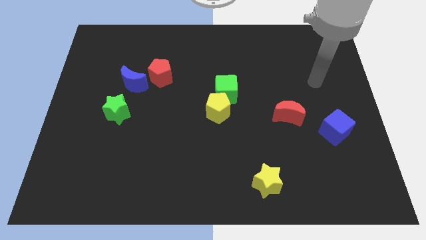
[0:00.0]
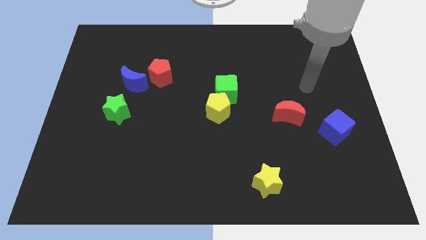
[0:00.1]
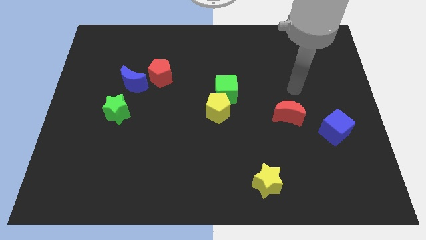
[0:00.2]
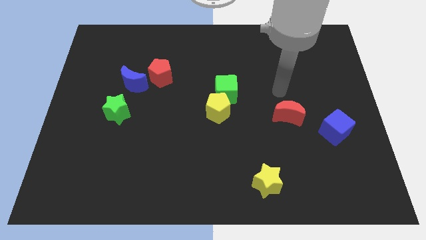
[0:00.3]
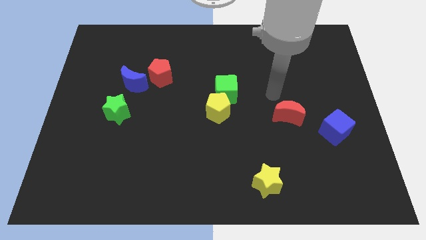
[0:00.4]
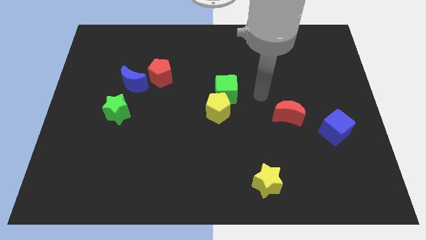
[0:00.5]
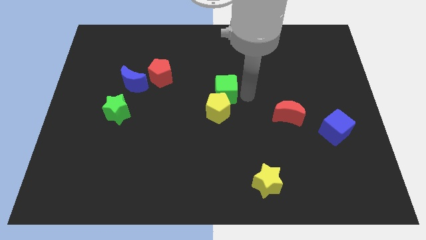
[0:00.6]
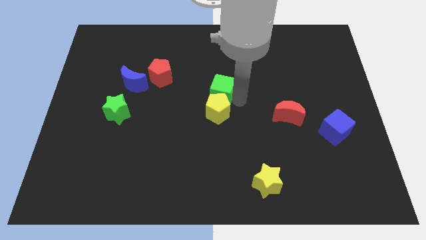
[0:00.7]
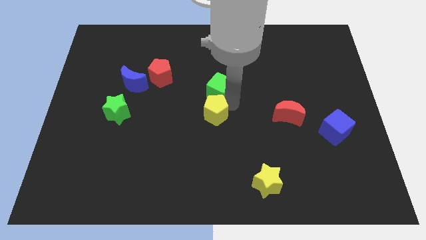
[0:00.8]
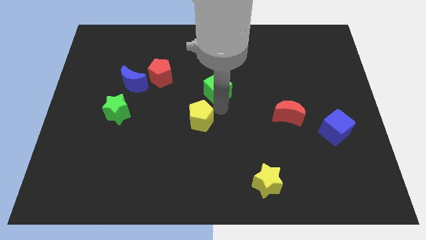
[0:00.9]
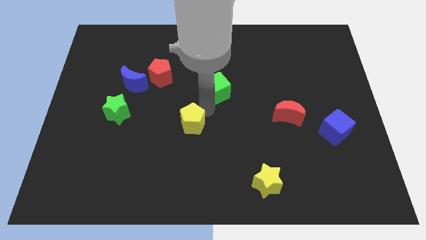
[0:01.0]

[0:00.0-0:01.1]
separate the green cube from the yellow pentagon

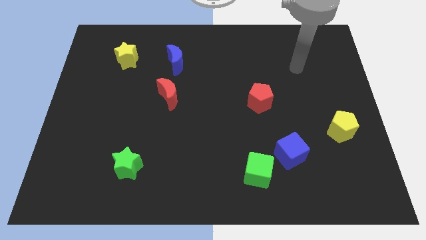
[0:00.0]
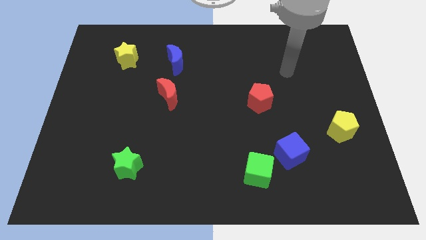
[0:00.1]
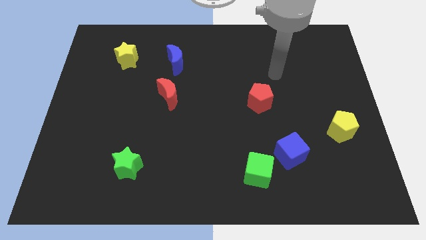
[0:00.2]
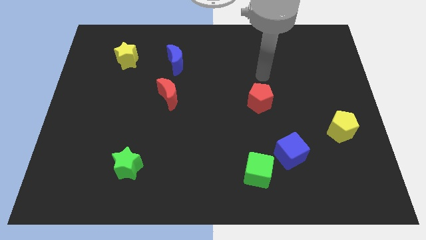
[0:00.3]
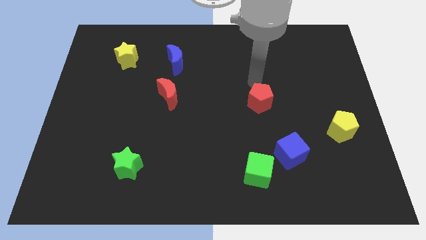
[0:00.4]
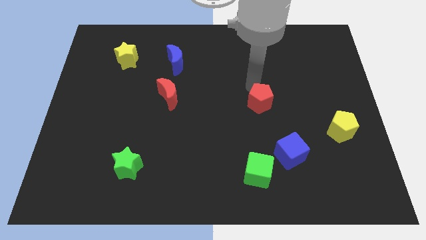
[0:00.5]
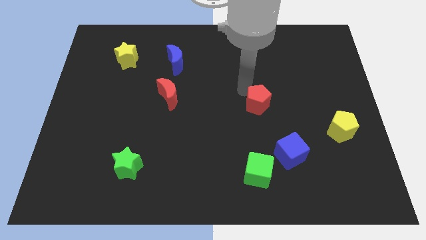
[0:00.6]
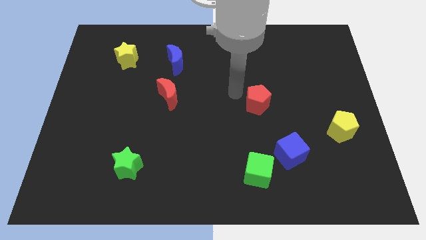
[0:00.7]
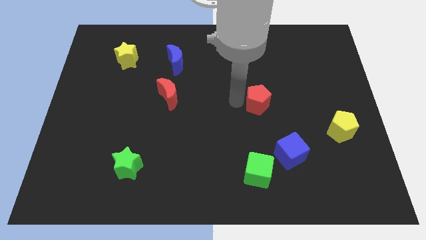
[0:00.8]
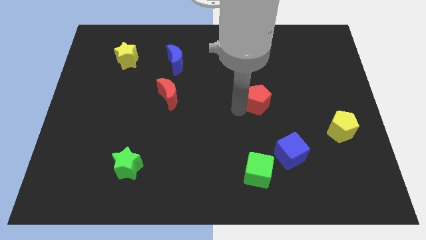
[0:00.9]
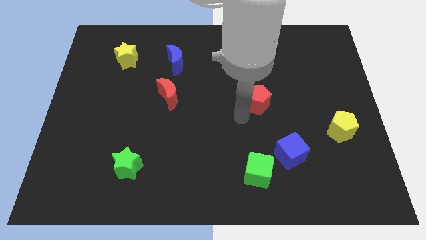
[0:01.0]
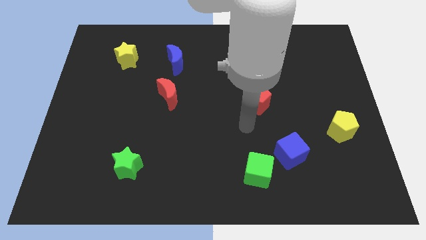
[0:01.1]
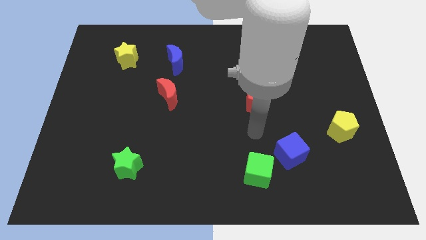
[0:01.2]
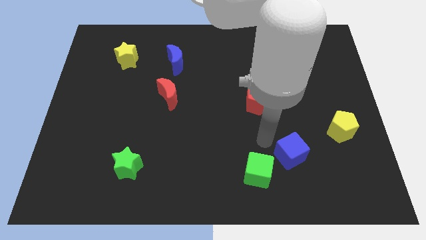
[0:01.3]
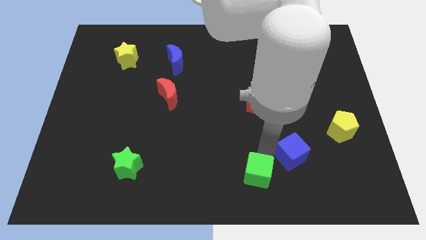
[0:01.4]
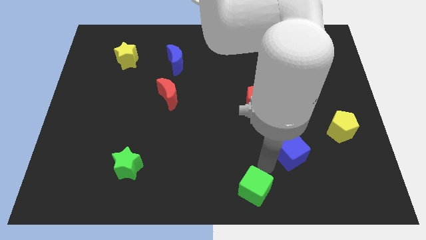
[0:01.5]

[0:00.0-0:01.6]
move the blue cube away from the green cube

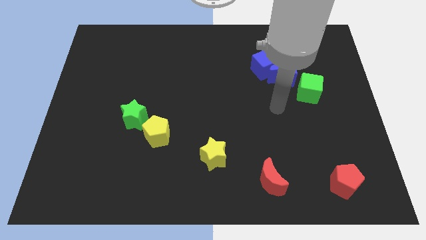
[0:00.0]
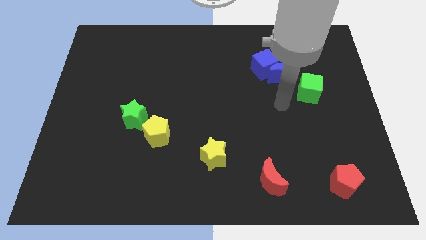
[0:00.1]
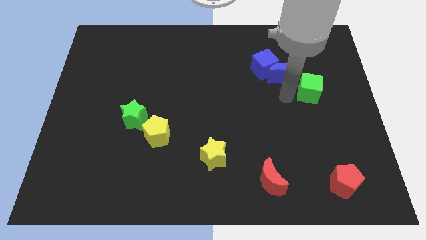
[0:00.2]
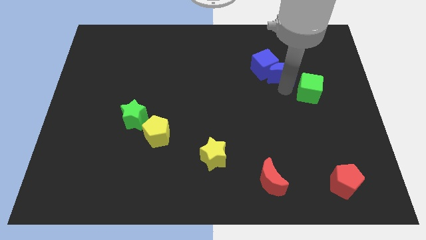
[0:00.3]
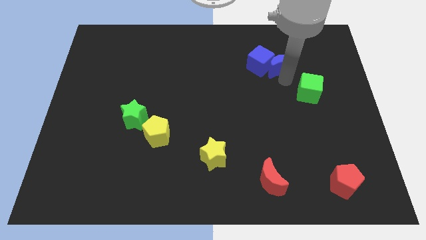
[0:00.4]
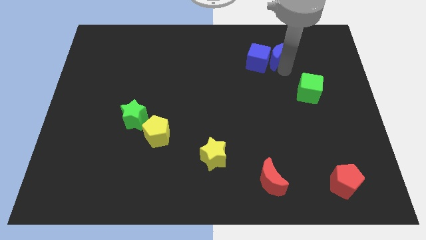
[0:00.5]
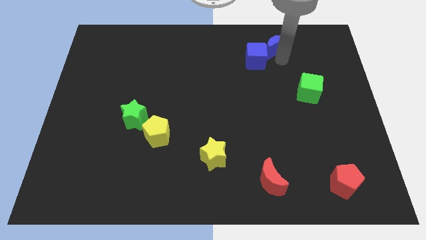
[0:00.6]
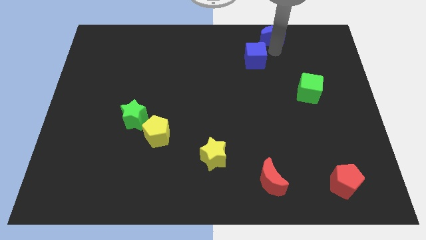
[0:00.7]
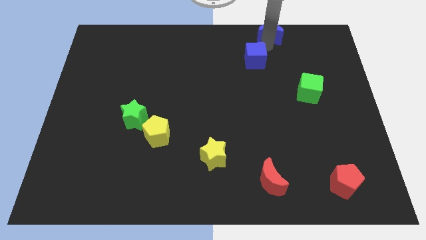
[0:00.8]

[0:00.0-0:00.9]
separate the blue cube from the blue moon

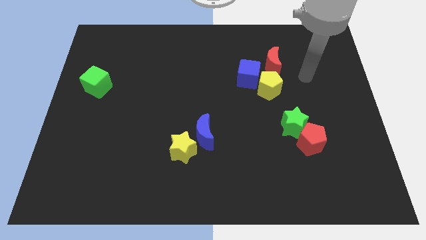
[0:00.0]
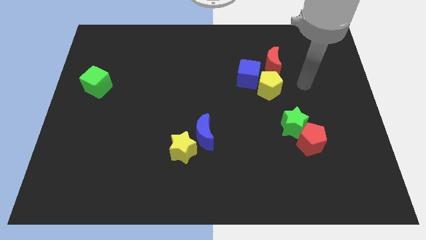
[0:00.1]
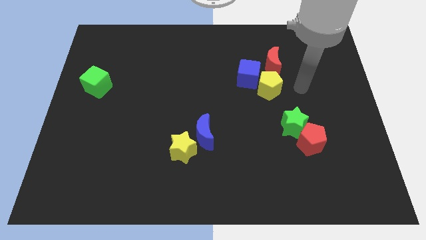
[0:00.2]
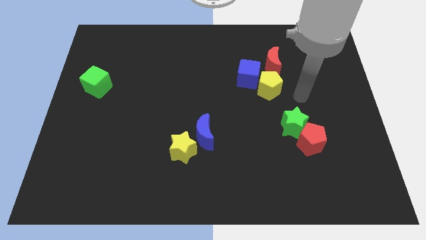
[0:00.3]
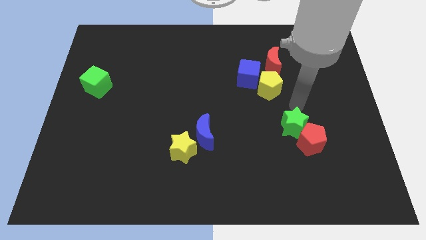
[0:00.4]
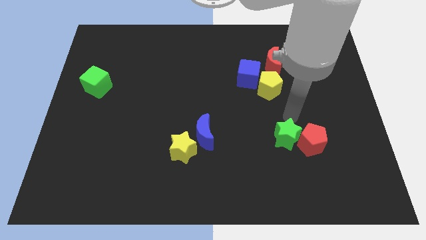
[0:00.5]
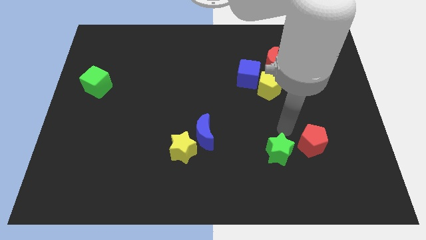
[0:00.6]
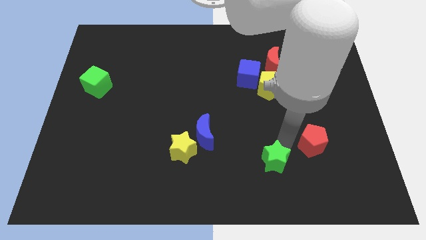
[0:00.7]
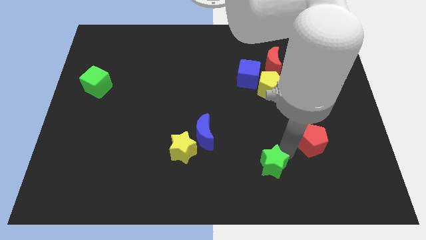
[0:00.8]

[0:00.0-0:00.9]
separate the red pentagon from the green star

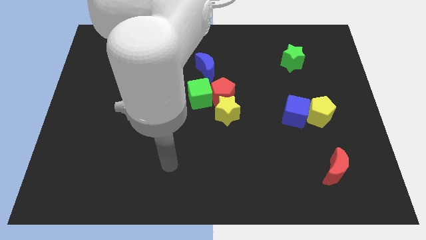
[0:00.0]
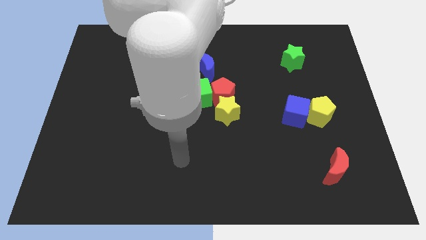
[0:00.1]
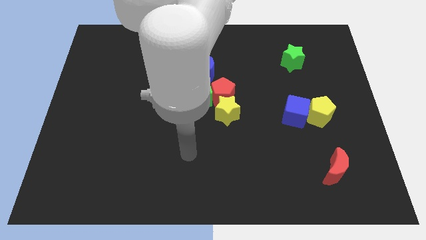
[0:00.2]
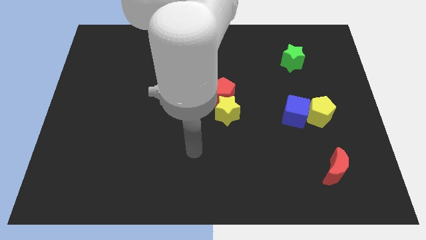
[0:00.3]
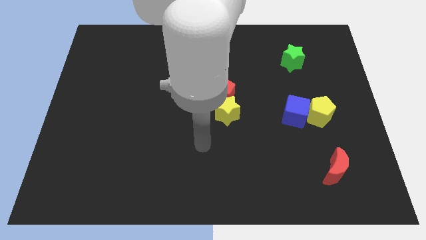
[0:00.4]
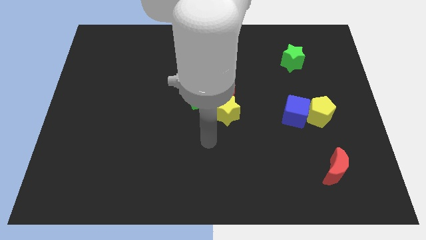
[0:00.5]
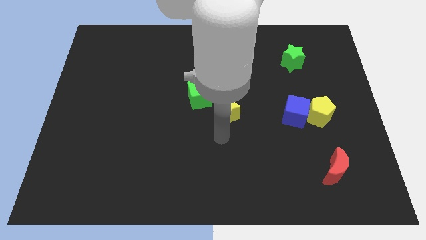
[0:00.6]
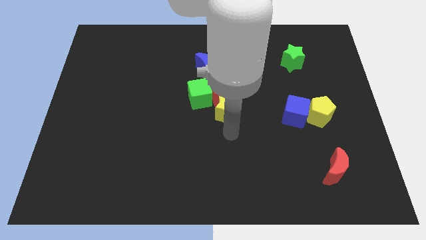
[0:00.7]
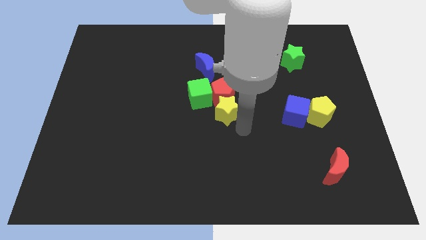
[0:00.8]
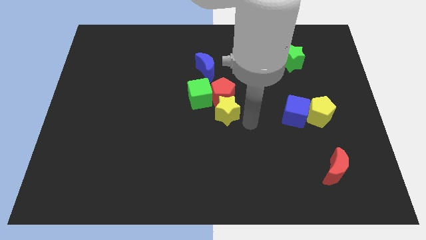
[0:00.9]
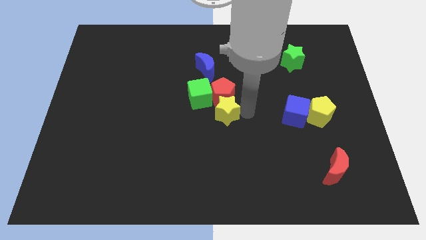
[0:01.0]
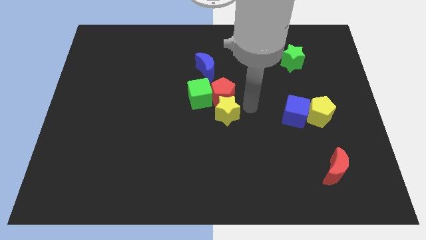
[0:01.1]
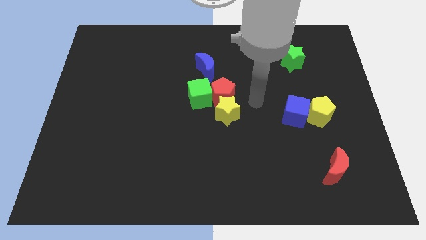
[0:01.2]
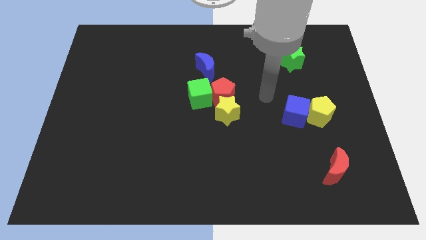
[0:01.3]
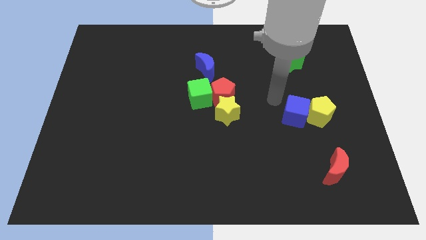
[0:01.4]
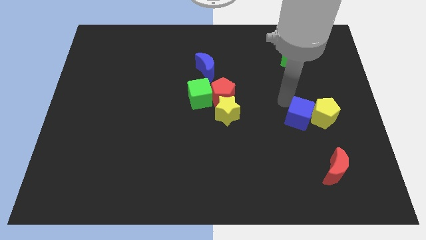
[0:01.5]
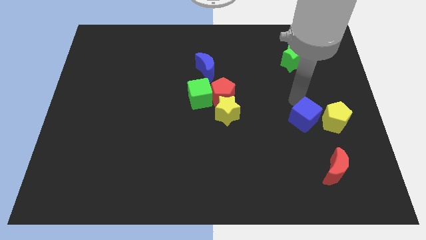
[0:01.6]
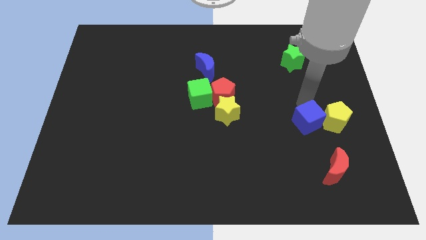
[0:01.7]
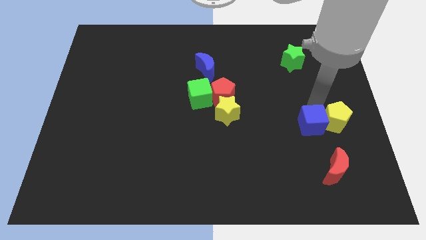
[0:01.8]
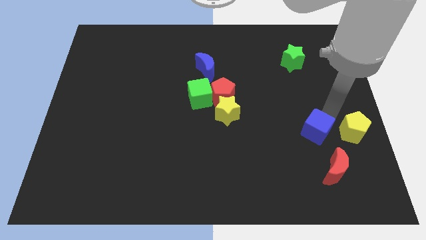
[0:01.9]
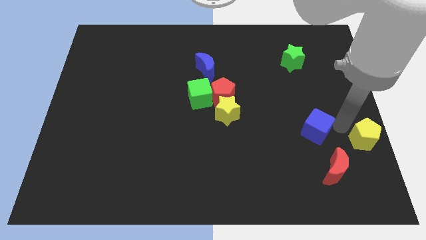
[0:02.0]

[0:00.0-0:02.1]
pull the blue cube apart from the yellow pentagon

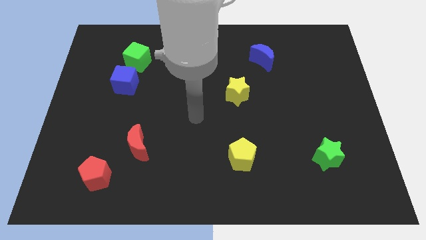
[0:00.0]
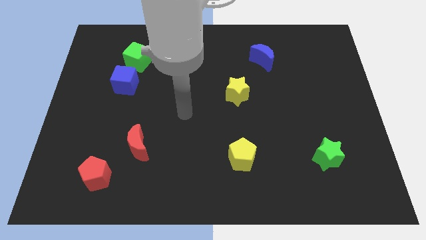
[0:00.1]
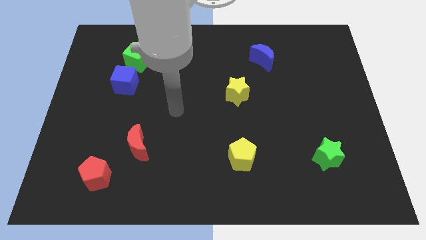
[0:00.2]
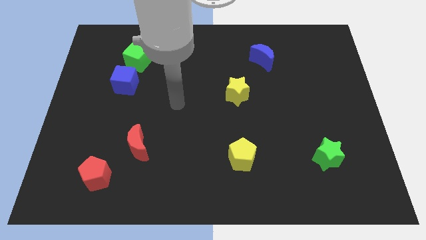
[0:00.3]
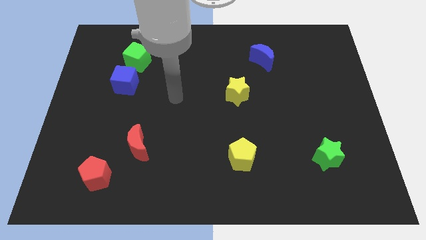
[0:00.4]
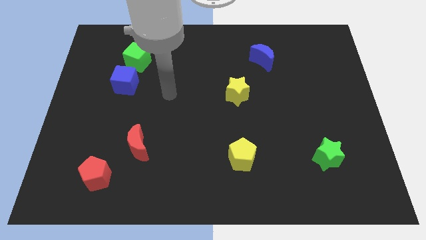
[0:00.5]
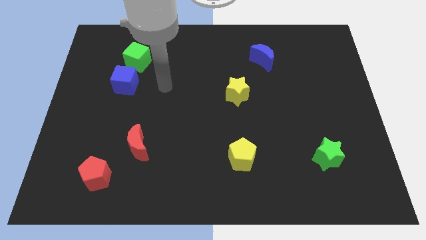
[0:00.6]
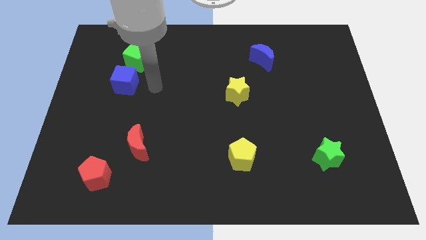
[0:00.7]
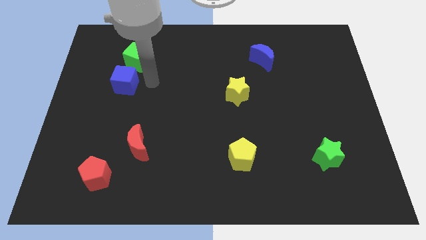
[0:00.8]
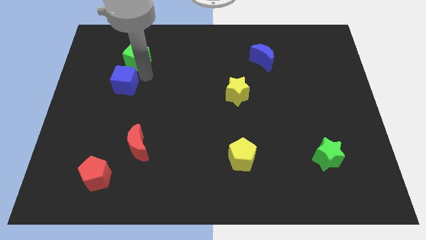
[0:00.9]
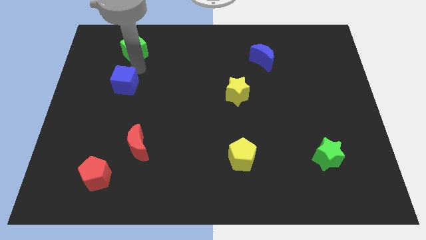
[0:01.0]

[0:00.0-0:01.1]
separate the blue cube from the green cube

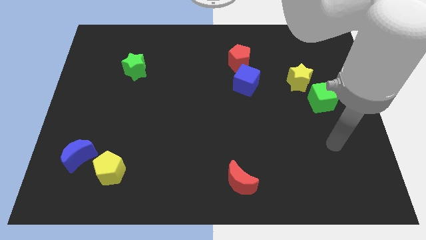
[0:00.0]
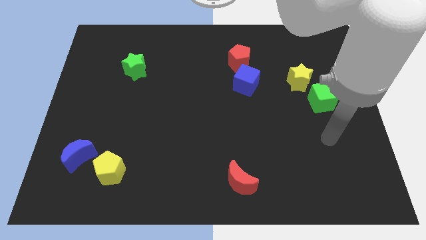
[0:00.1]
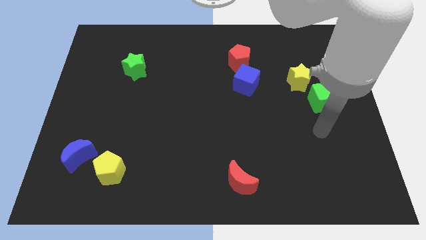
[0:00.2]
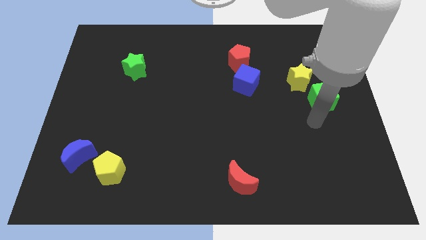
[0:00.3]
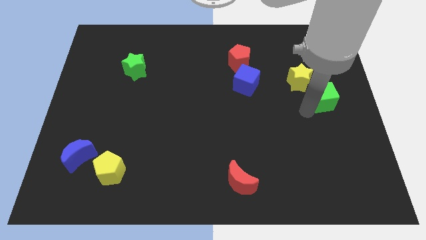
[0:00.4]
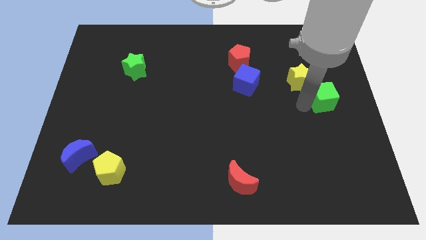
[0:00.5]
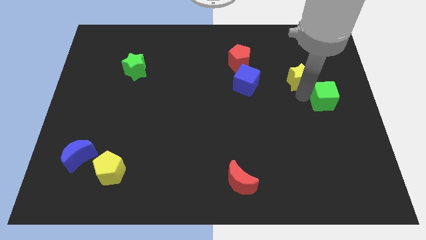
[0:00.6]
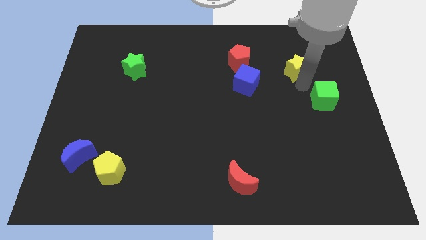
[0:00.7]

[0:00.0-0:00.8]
separate the green cube from the yellow star

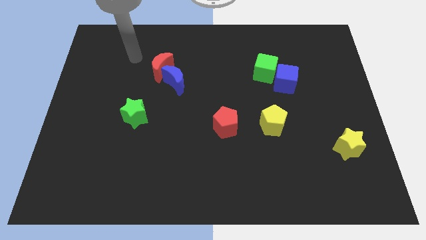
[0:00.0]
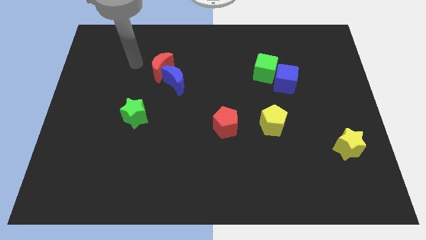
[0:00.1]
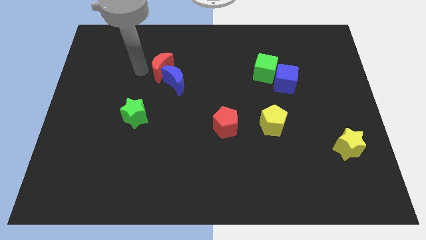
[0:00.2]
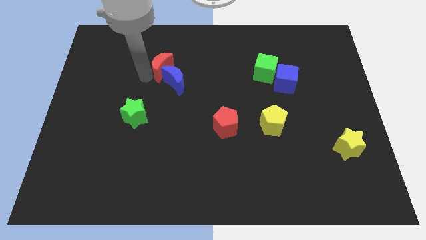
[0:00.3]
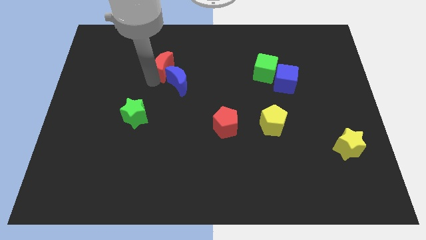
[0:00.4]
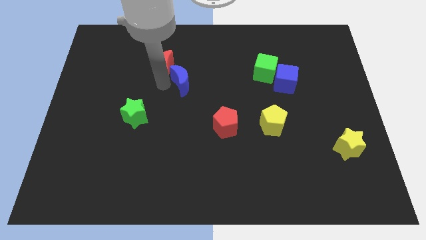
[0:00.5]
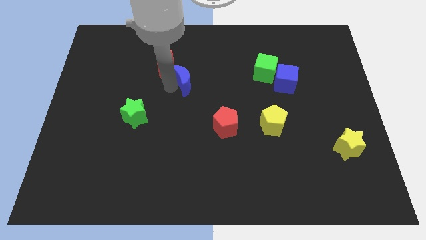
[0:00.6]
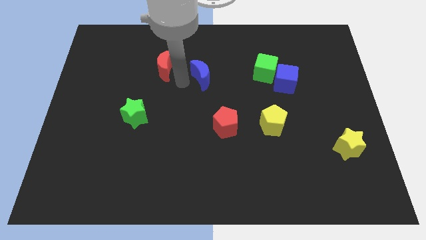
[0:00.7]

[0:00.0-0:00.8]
pull the red moon apart from the blue moon

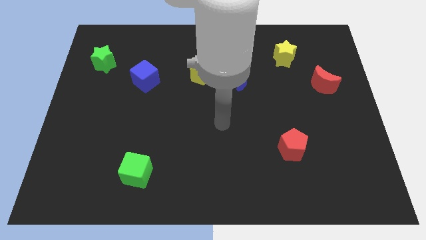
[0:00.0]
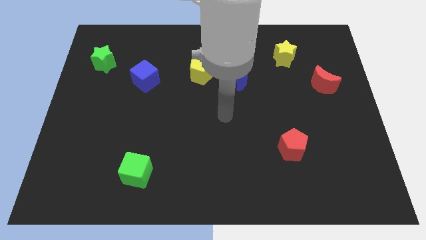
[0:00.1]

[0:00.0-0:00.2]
pull the blue moon apart from the yellow pentagon
